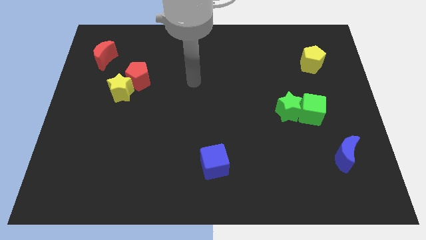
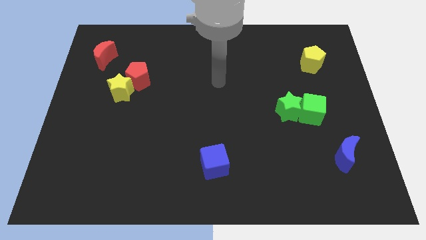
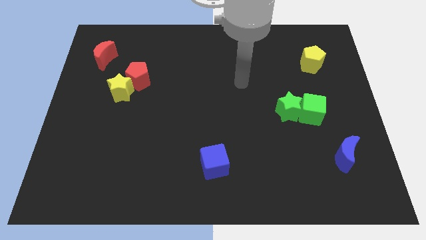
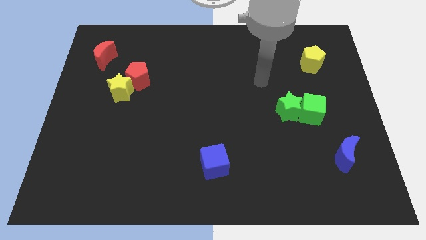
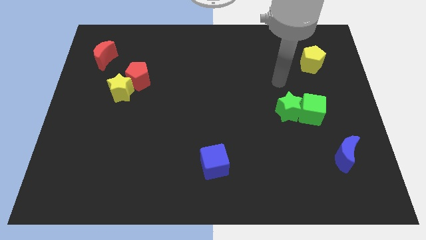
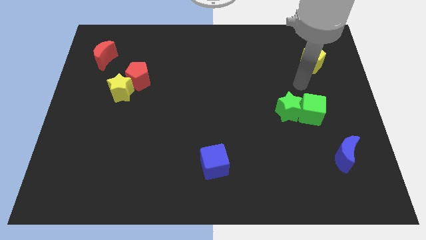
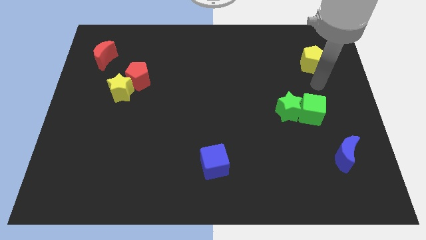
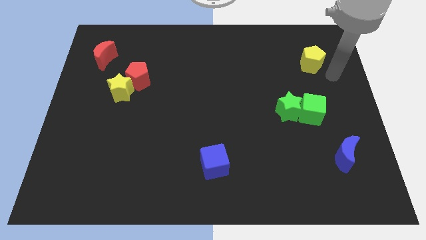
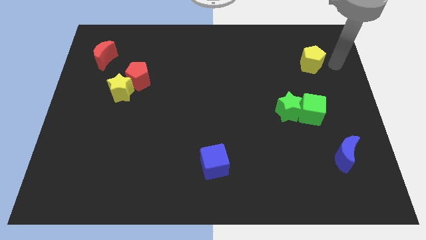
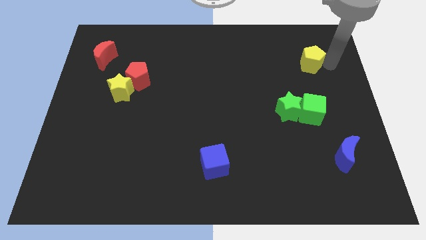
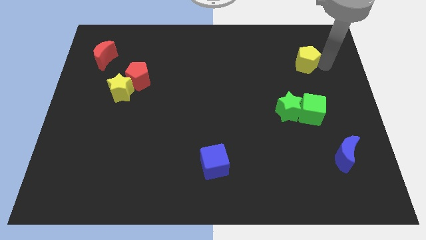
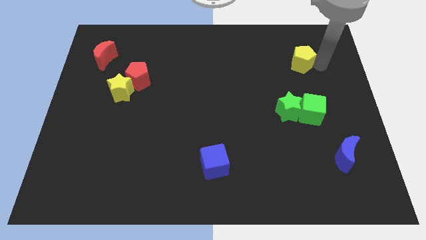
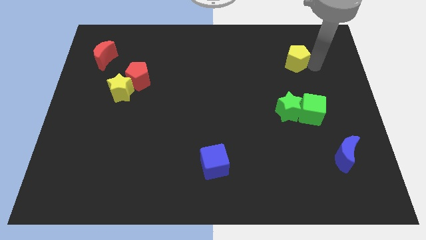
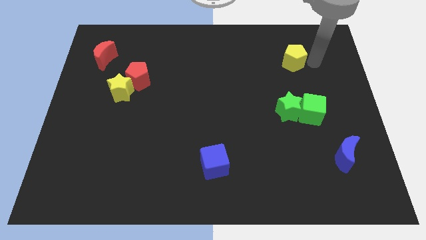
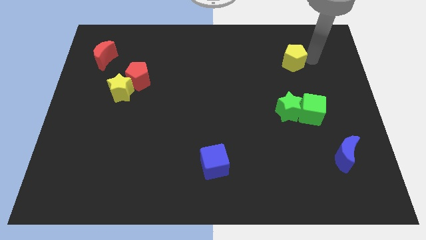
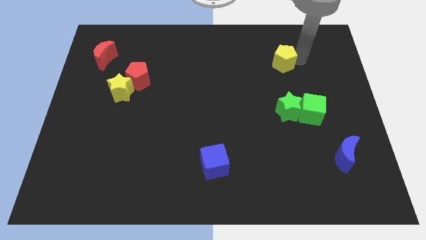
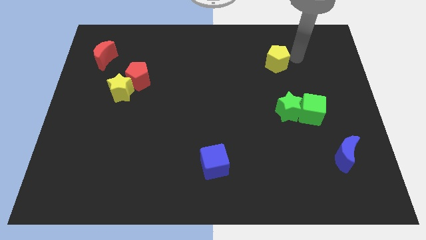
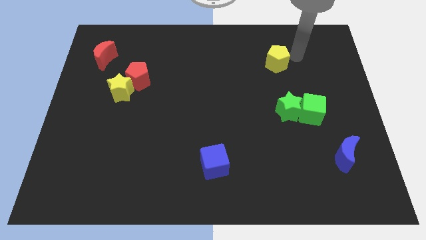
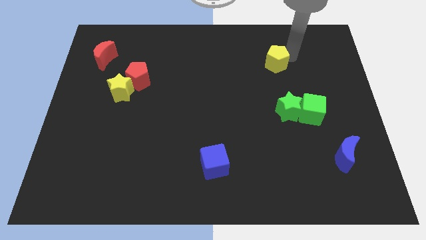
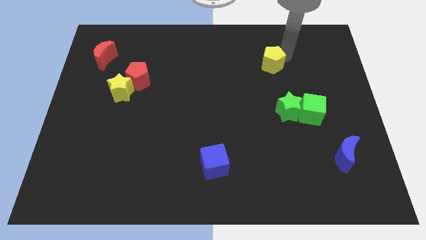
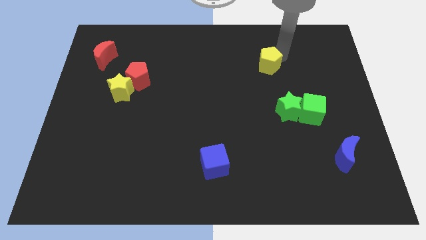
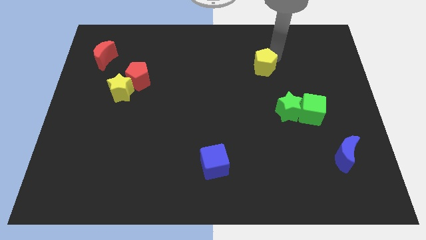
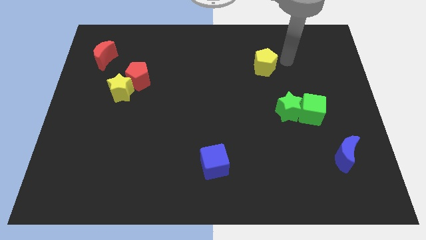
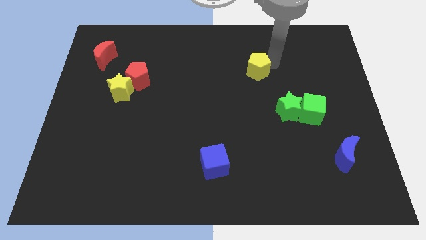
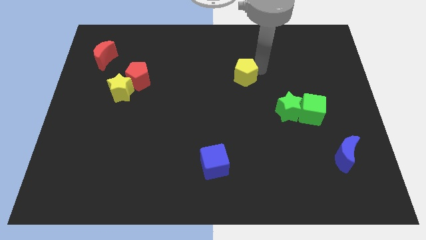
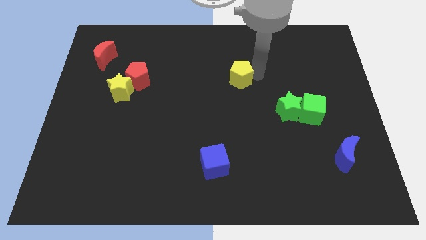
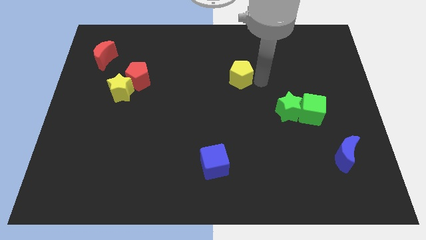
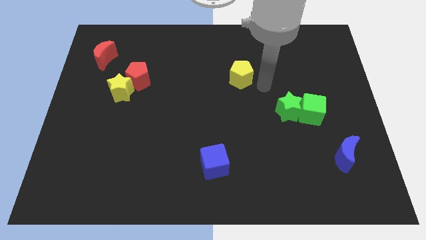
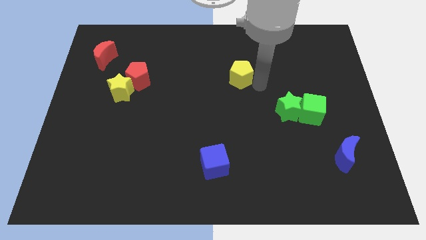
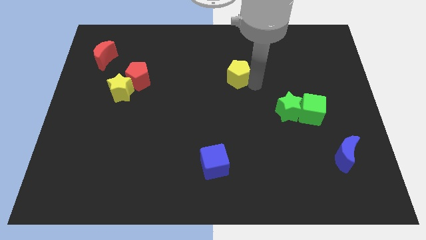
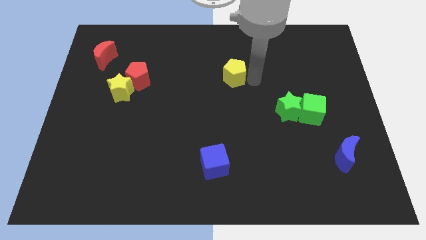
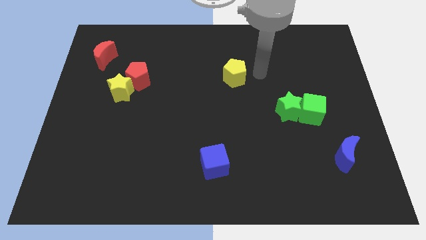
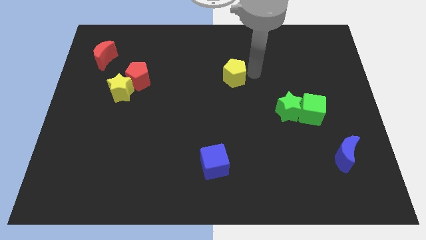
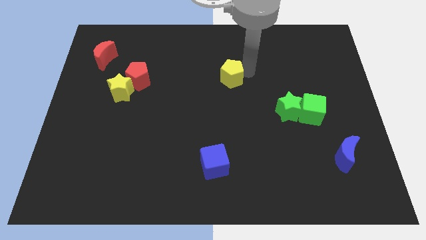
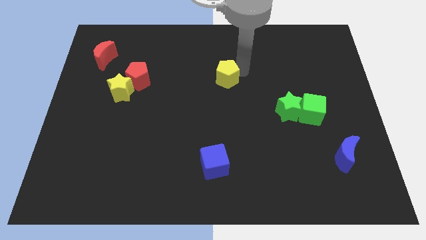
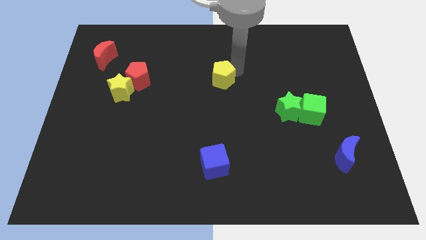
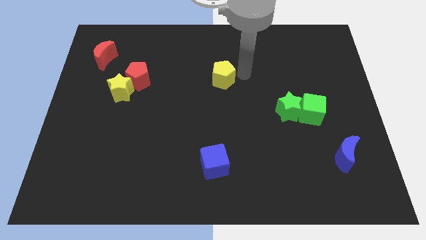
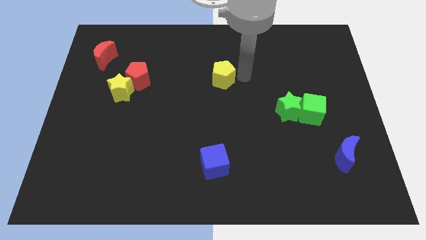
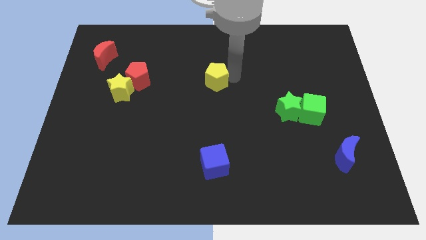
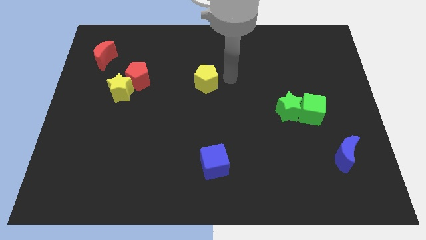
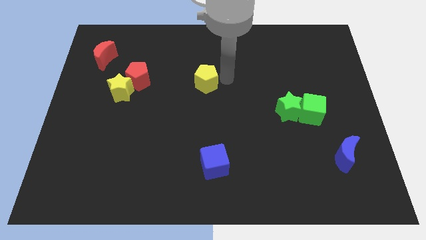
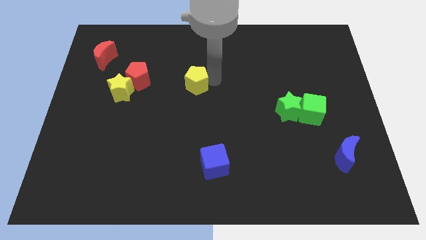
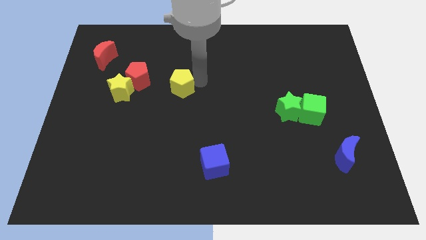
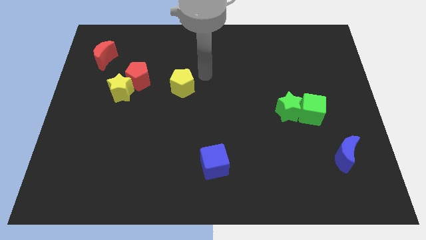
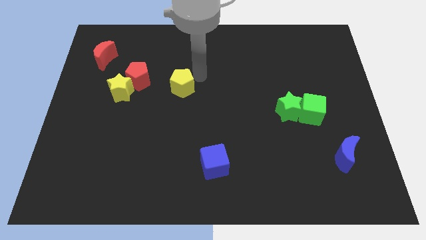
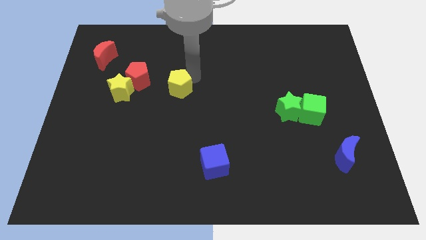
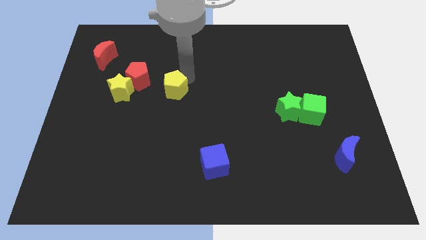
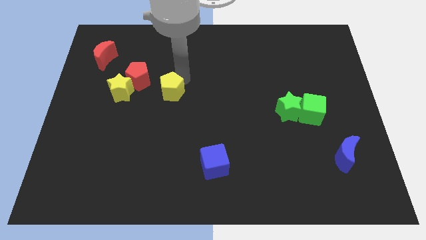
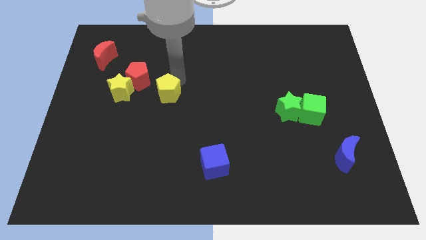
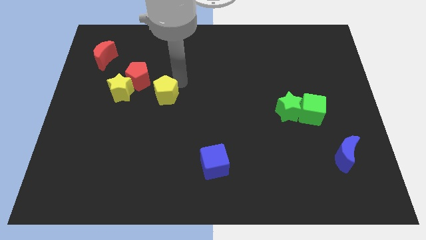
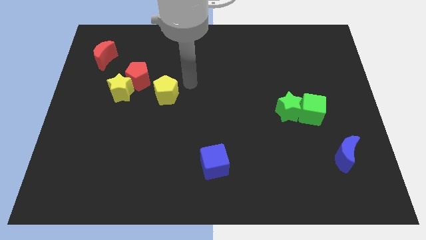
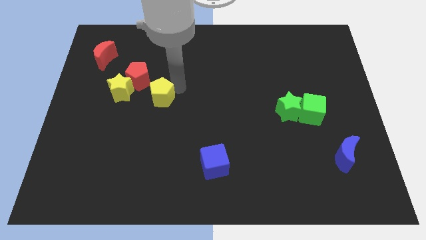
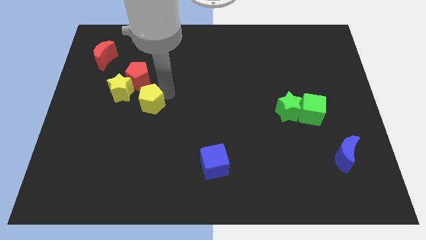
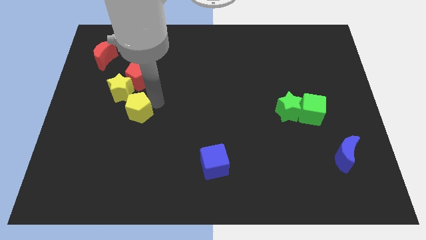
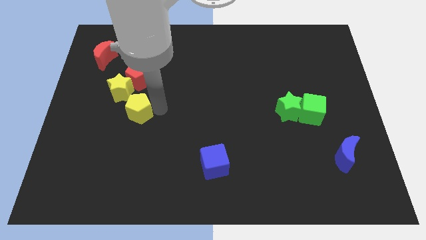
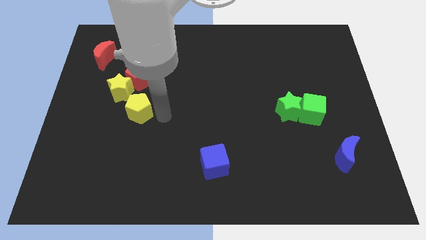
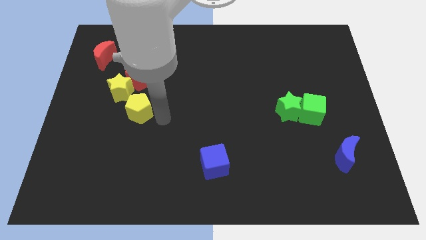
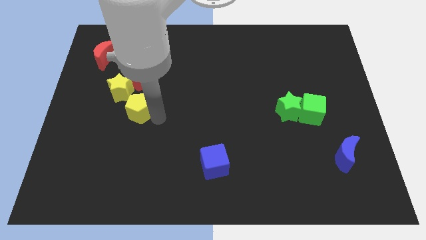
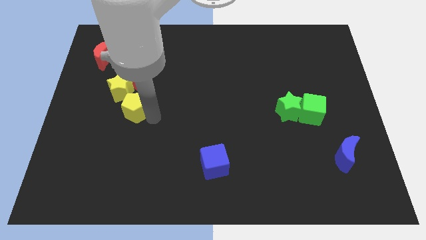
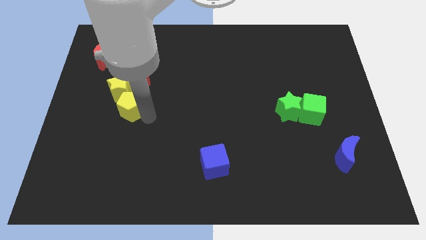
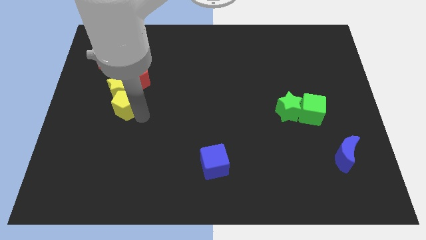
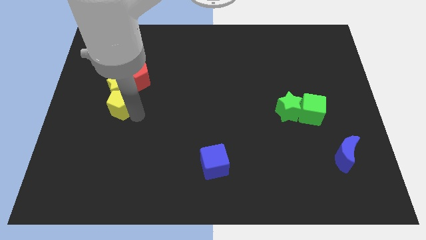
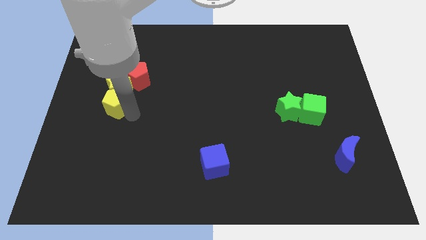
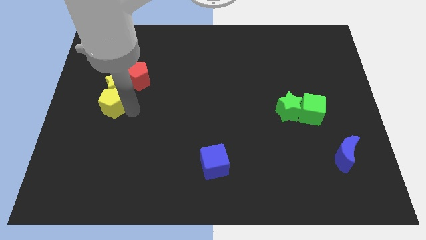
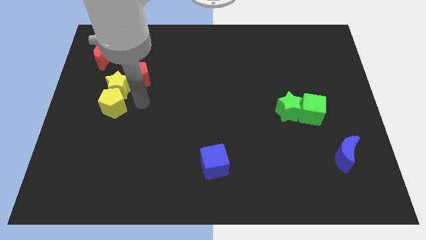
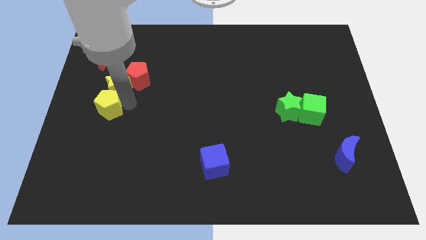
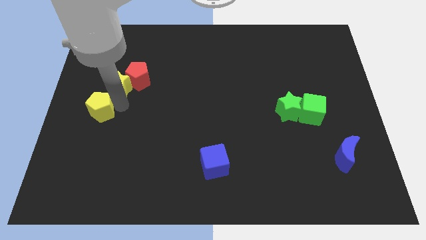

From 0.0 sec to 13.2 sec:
slide the yellow pentagon to the center left

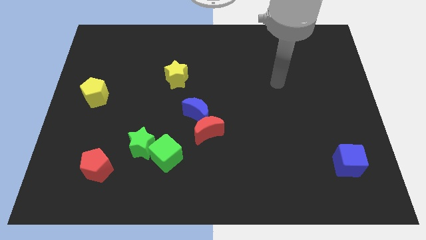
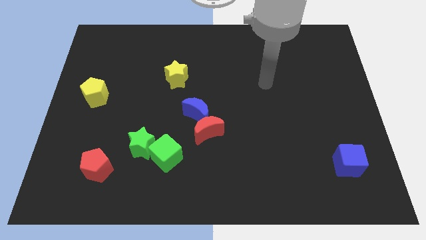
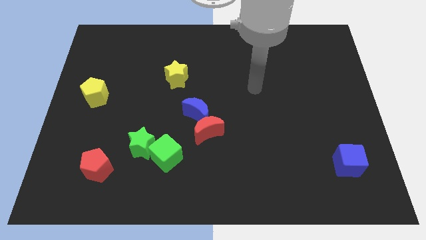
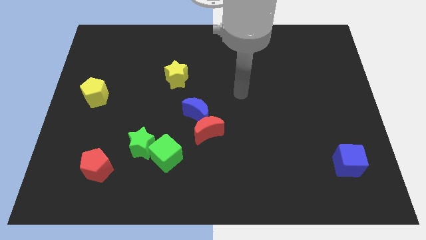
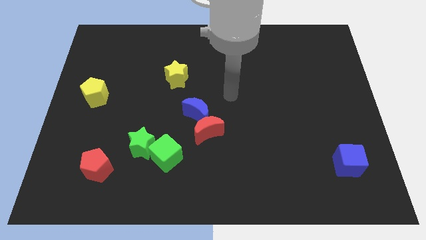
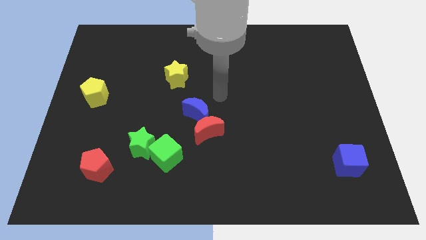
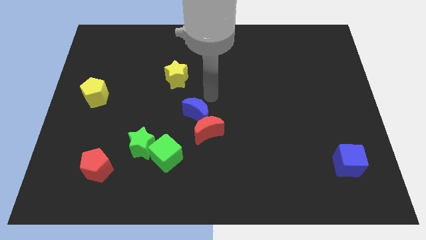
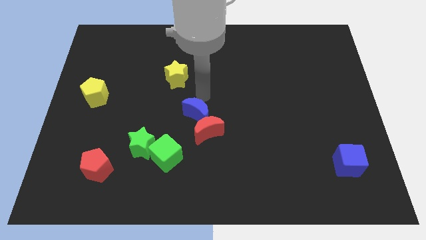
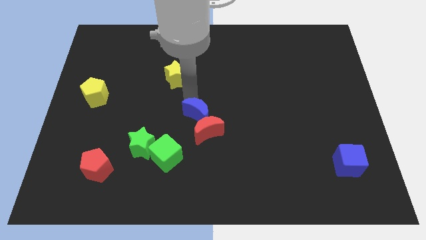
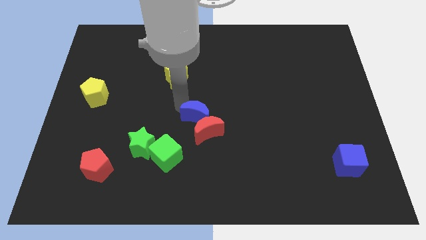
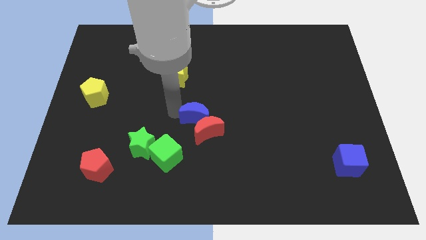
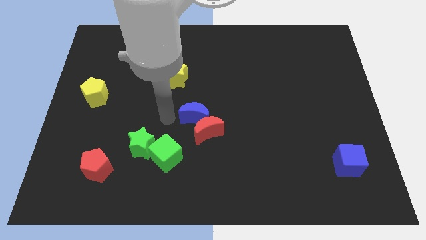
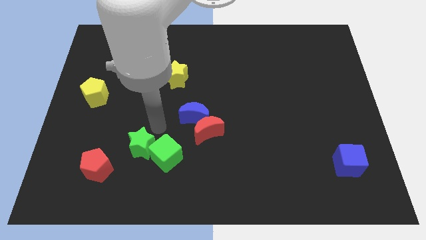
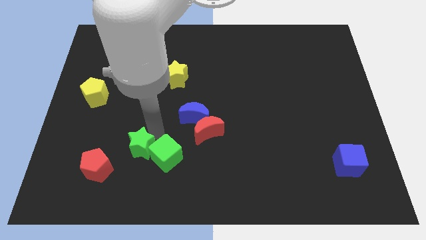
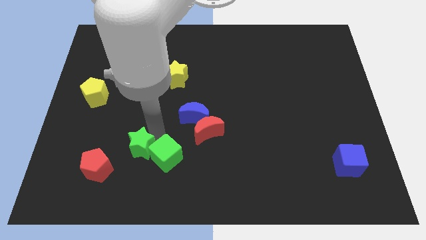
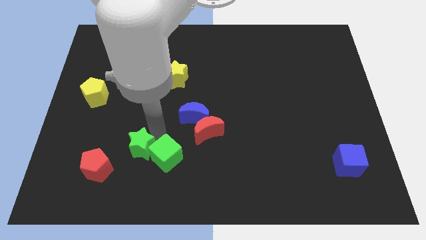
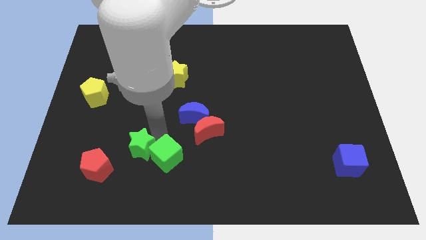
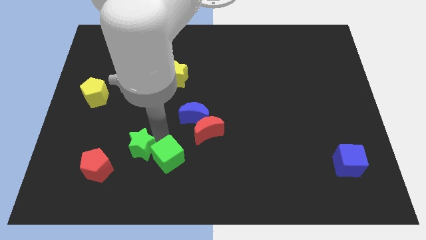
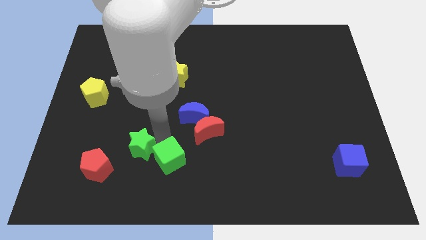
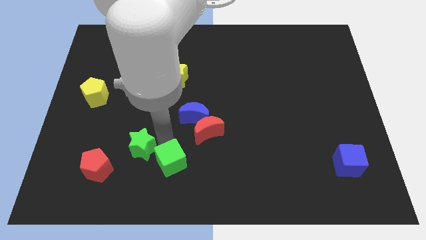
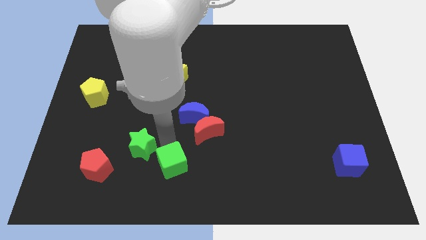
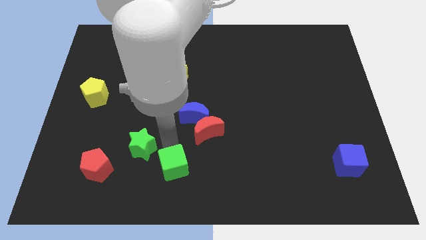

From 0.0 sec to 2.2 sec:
move the green cube to the bottom side
